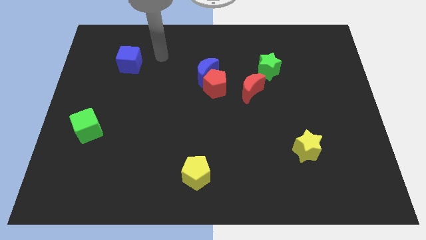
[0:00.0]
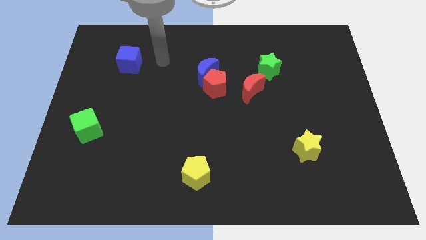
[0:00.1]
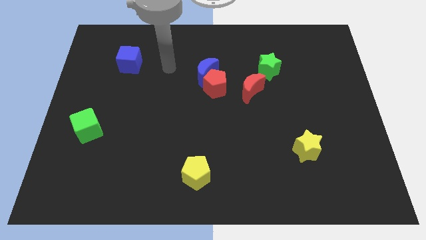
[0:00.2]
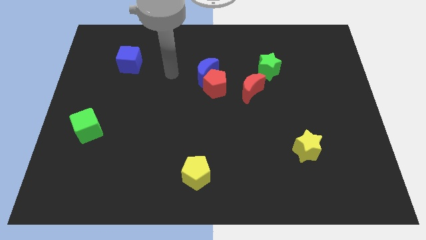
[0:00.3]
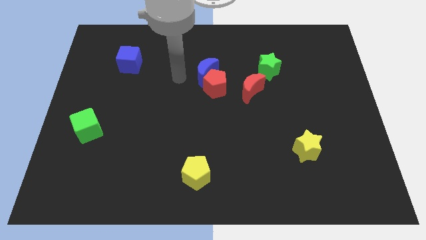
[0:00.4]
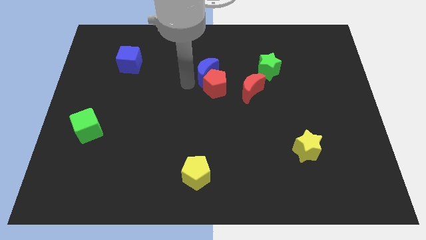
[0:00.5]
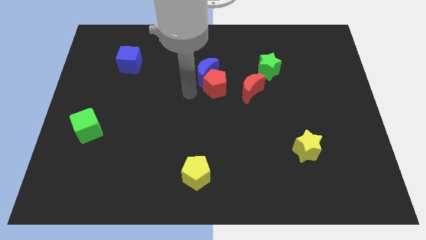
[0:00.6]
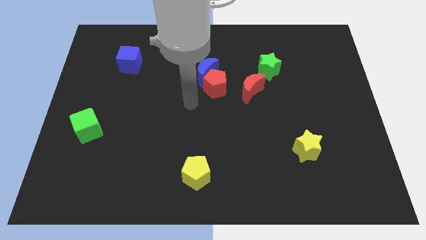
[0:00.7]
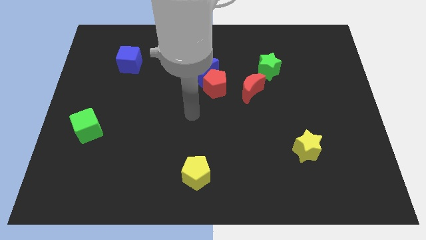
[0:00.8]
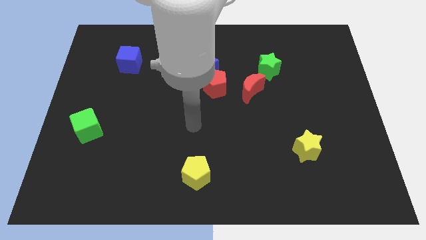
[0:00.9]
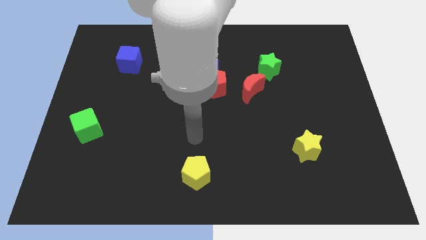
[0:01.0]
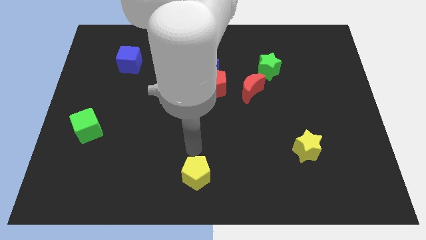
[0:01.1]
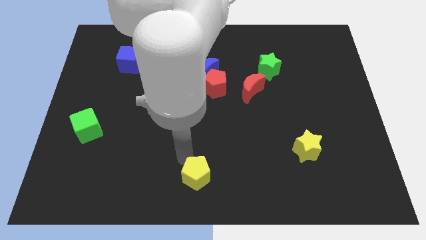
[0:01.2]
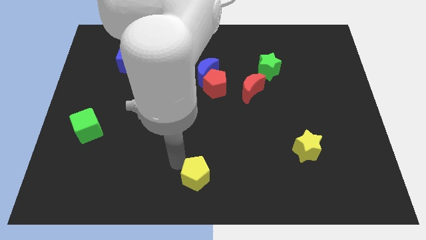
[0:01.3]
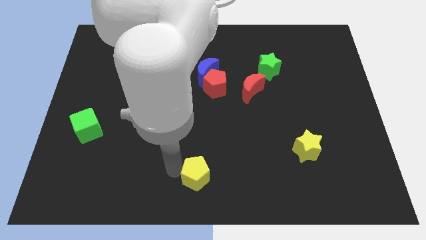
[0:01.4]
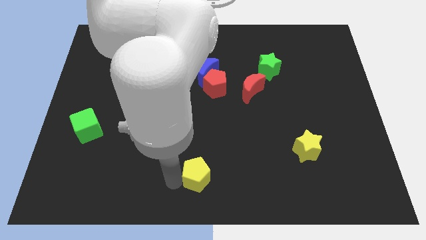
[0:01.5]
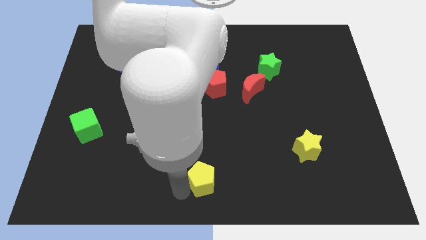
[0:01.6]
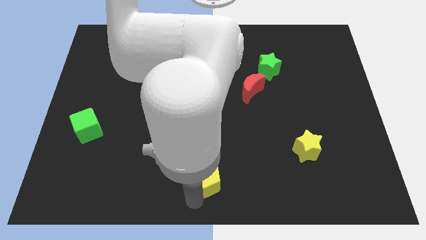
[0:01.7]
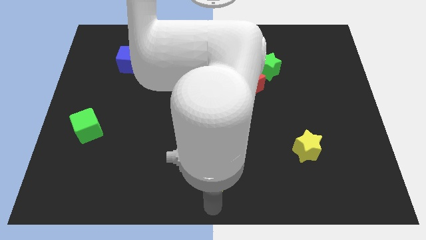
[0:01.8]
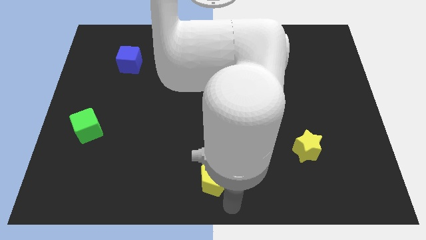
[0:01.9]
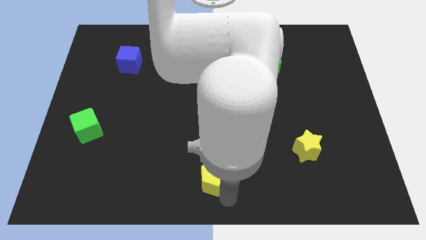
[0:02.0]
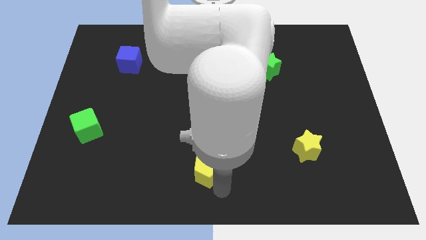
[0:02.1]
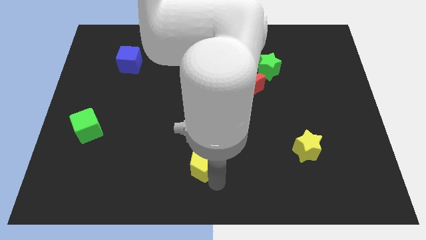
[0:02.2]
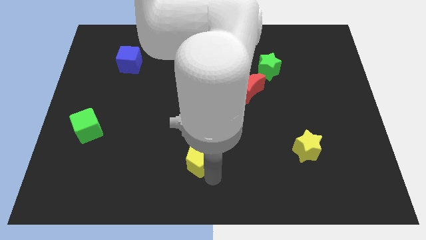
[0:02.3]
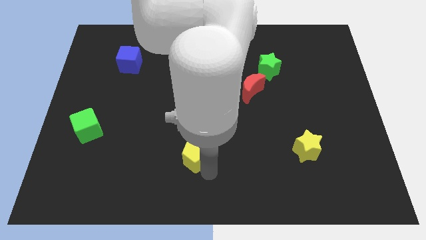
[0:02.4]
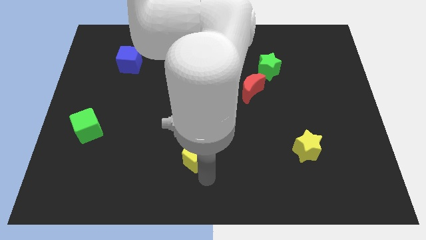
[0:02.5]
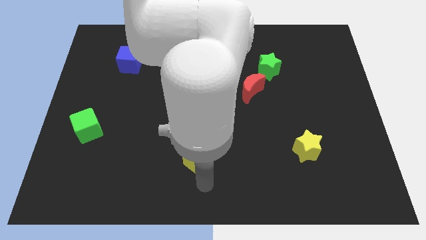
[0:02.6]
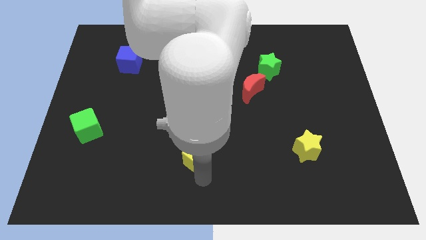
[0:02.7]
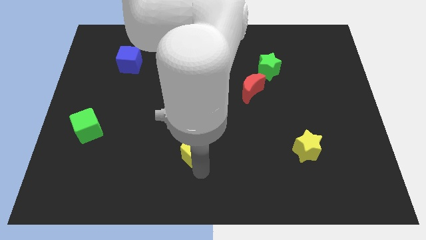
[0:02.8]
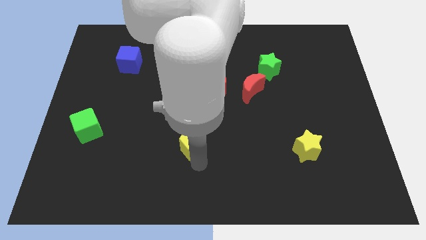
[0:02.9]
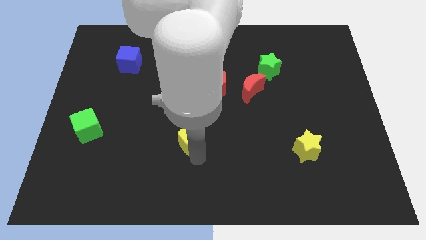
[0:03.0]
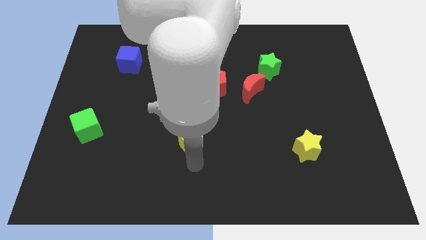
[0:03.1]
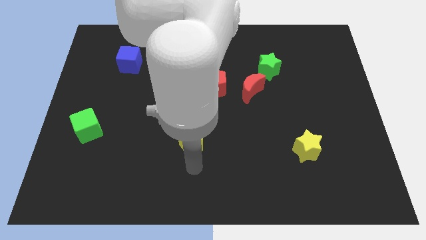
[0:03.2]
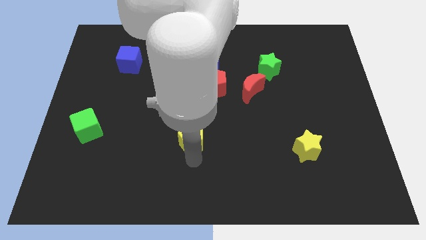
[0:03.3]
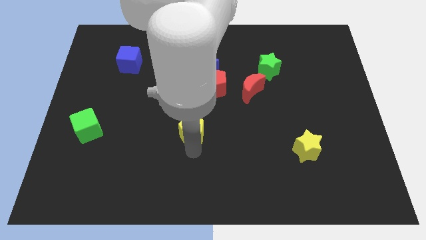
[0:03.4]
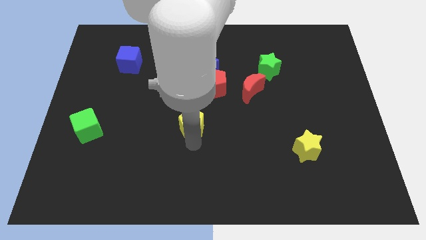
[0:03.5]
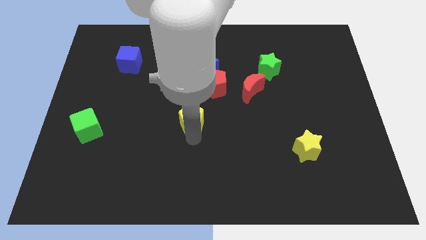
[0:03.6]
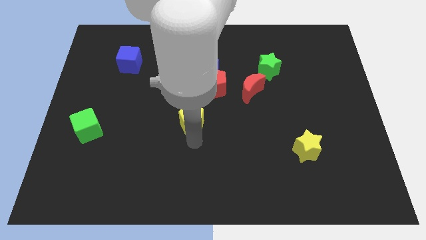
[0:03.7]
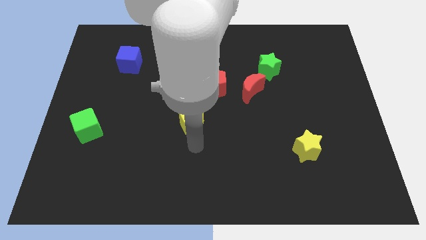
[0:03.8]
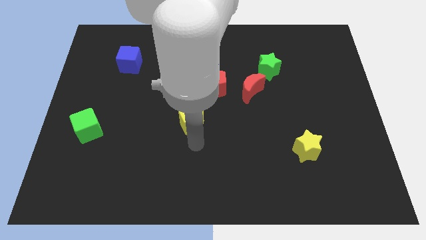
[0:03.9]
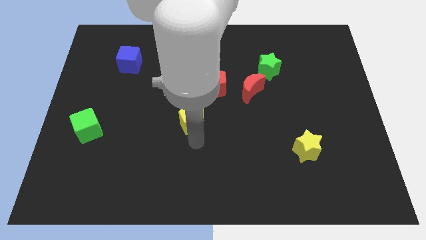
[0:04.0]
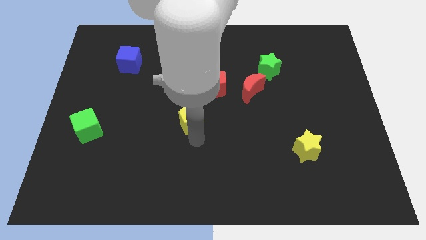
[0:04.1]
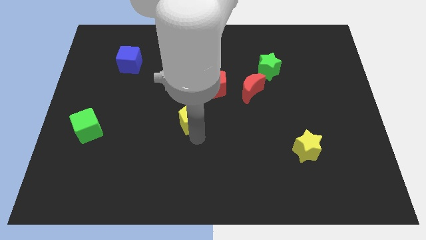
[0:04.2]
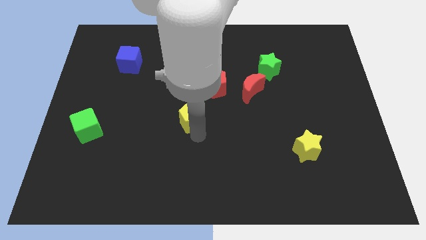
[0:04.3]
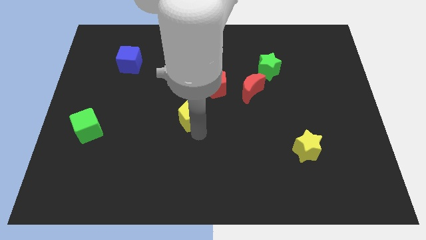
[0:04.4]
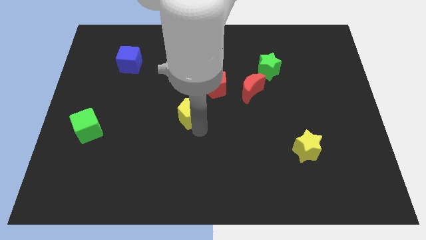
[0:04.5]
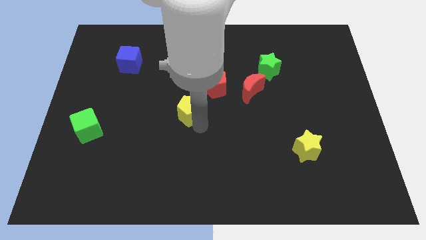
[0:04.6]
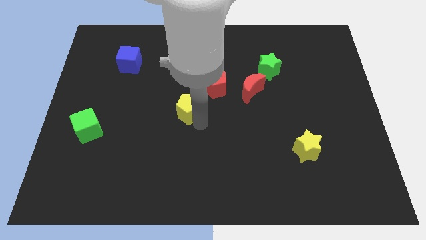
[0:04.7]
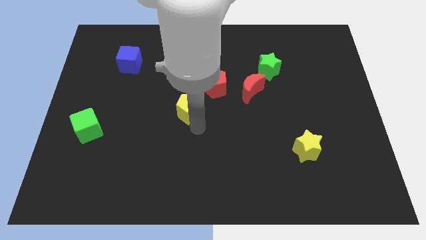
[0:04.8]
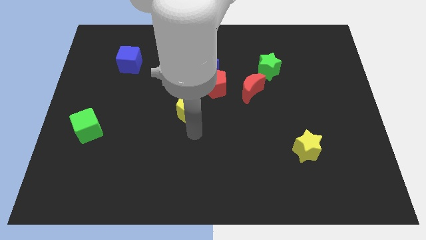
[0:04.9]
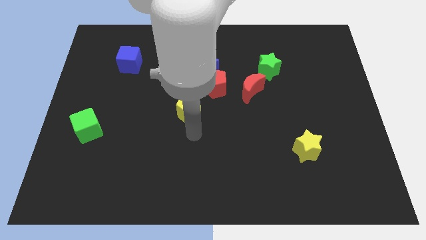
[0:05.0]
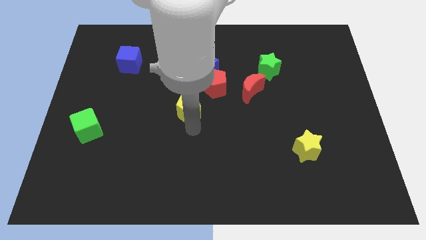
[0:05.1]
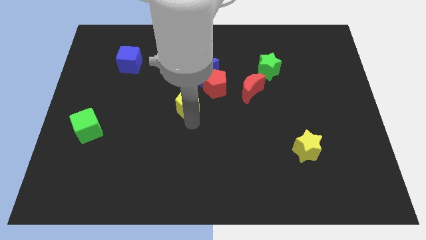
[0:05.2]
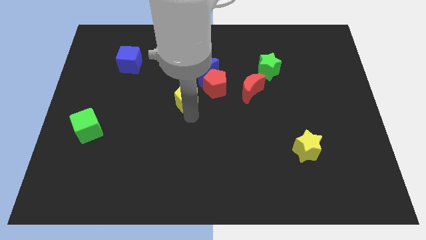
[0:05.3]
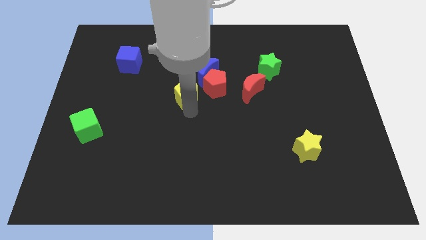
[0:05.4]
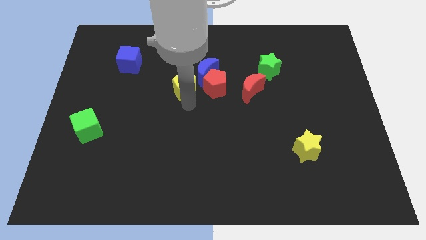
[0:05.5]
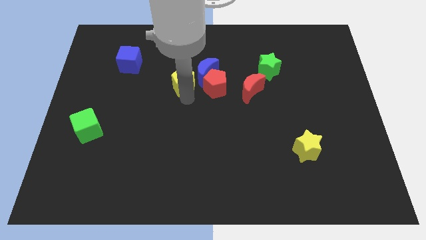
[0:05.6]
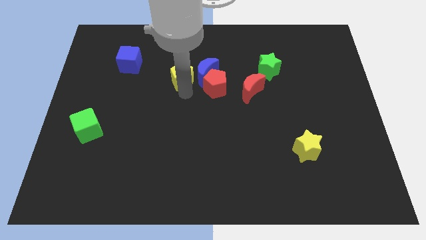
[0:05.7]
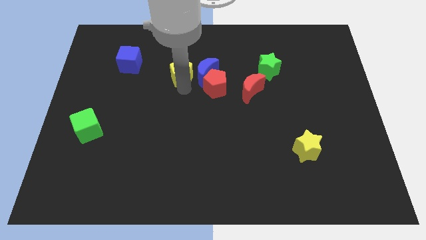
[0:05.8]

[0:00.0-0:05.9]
put the yellow pentagon to the top left side of the blue moon

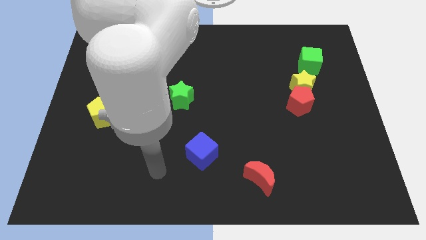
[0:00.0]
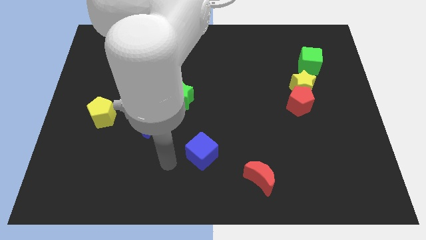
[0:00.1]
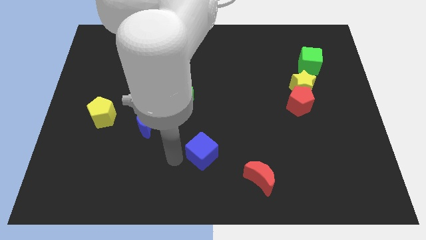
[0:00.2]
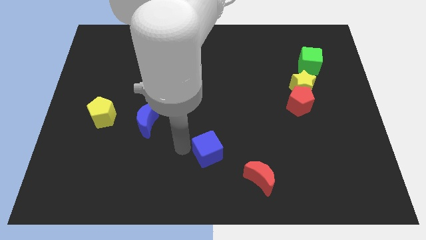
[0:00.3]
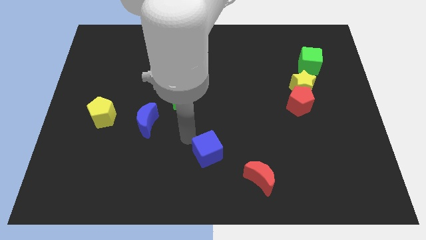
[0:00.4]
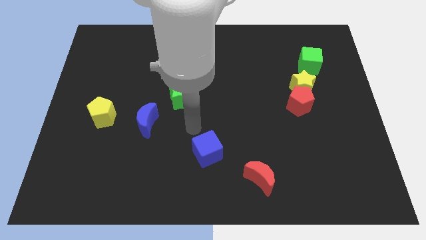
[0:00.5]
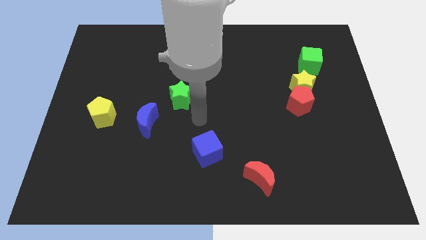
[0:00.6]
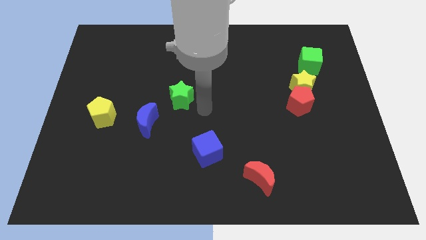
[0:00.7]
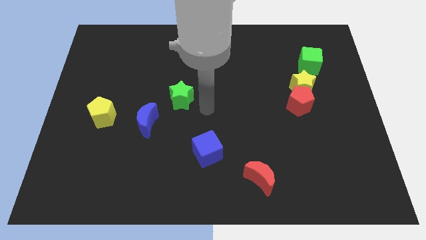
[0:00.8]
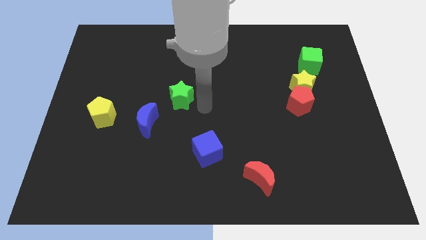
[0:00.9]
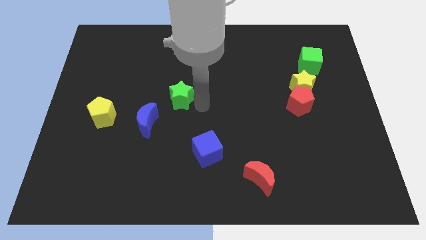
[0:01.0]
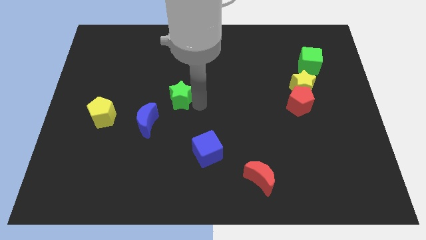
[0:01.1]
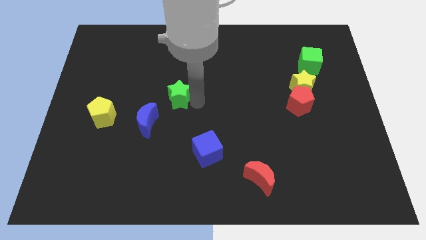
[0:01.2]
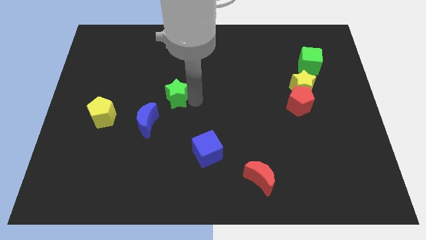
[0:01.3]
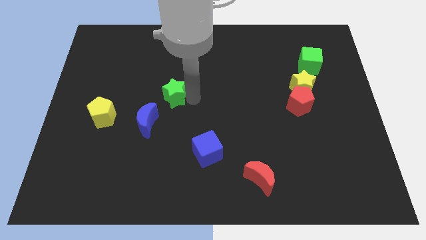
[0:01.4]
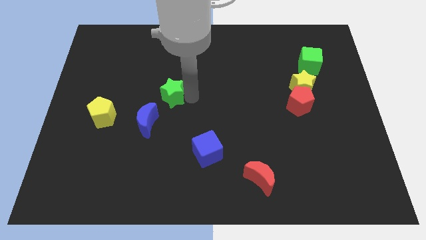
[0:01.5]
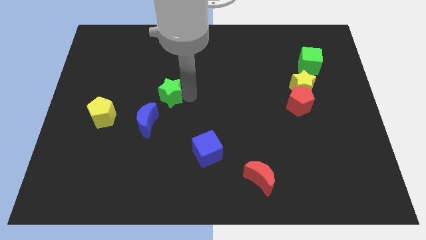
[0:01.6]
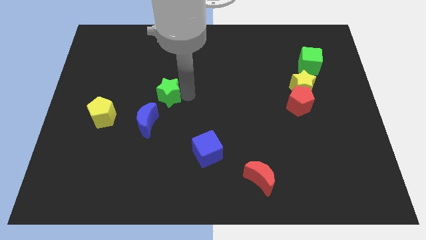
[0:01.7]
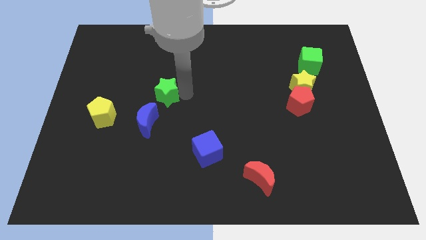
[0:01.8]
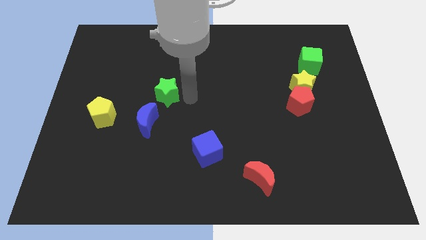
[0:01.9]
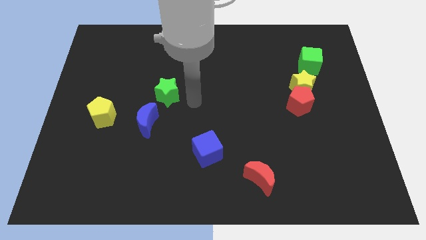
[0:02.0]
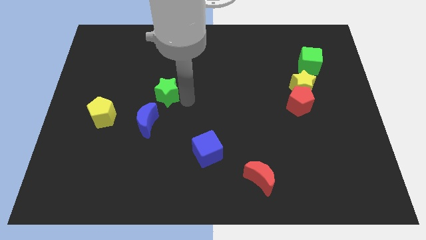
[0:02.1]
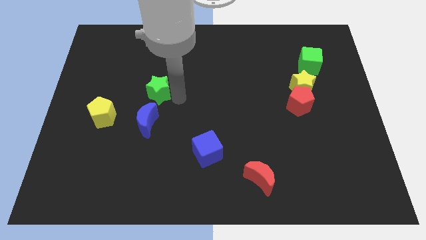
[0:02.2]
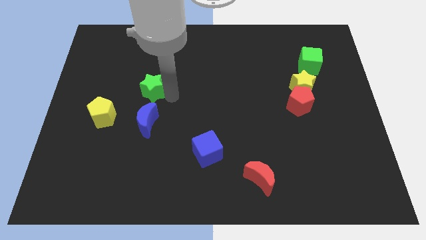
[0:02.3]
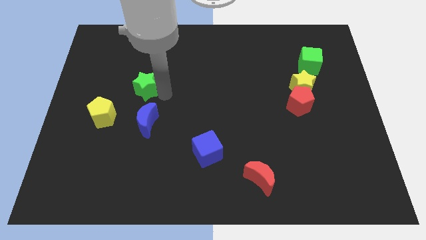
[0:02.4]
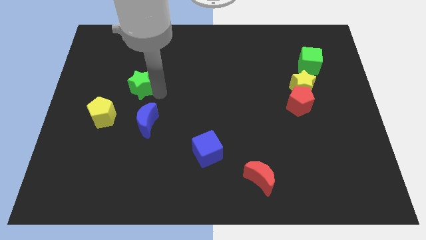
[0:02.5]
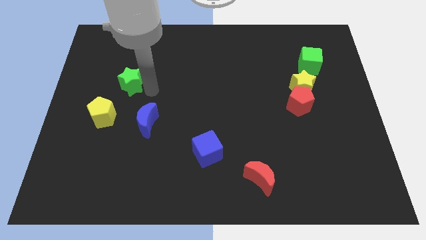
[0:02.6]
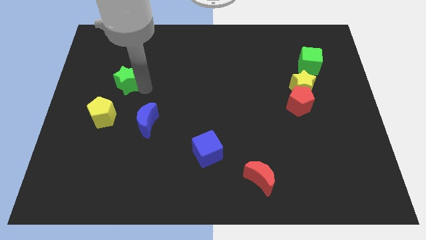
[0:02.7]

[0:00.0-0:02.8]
move the green star to the top side of the yellow pentagon
